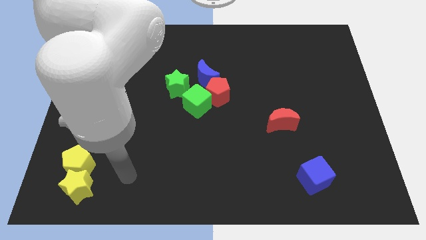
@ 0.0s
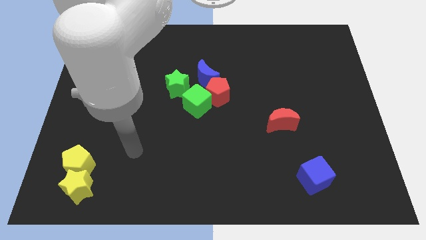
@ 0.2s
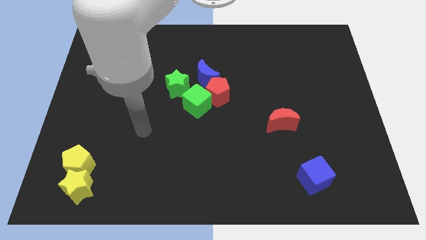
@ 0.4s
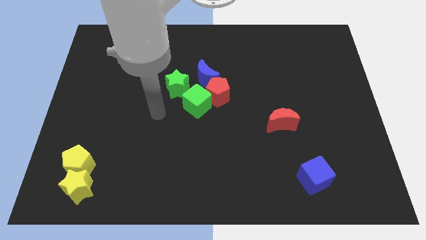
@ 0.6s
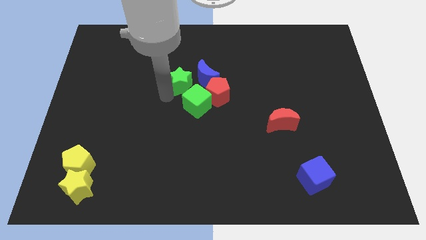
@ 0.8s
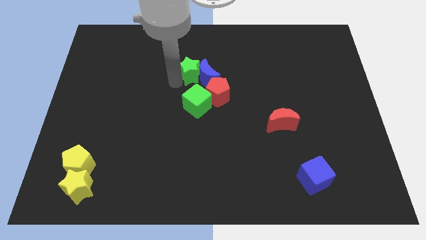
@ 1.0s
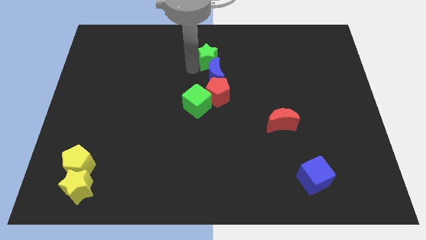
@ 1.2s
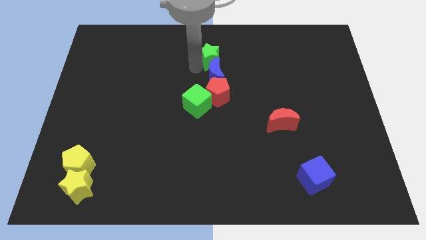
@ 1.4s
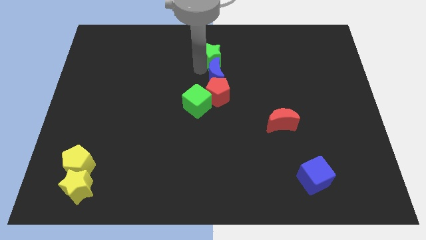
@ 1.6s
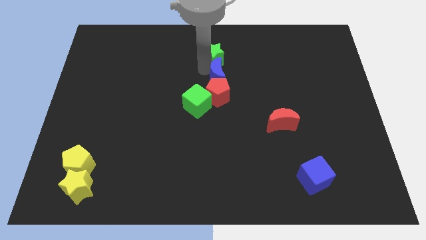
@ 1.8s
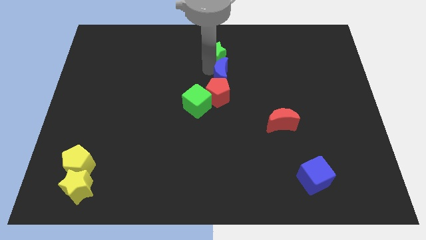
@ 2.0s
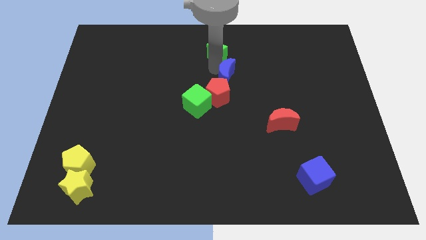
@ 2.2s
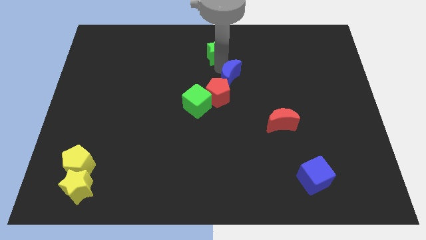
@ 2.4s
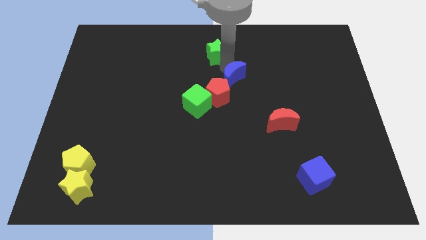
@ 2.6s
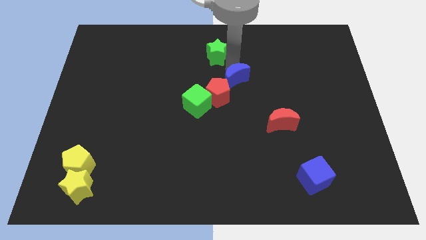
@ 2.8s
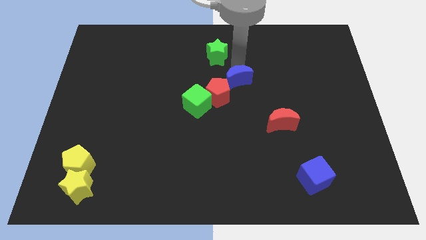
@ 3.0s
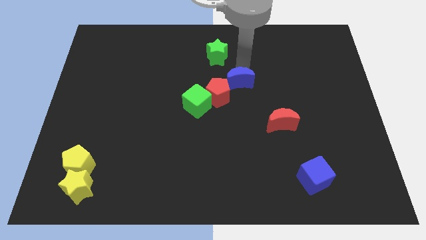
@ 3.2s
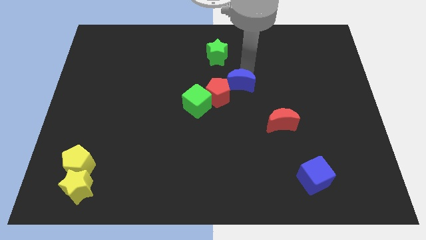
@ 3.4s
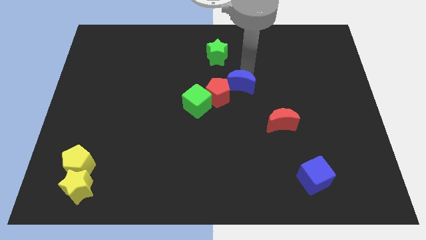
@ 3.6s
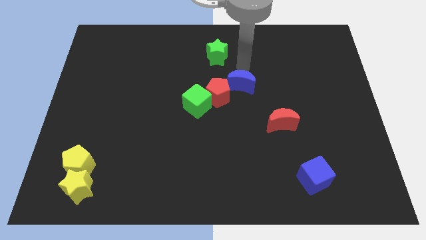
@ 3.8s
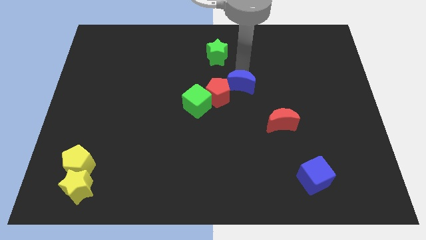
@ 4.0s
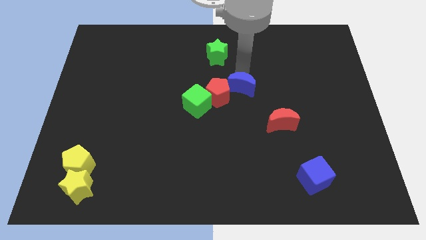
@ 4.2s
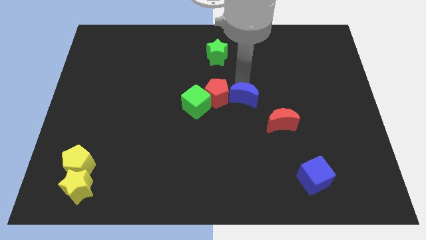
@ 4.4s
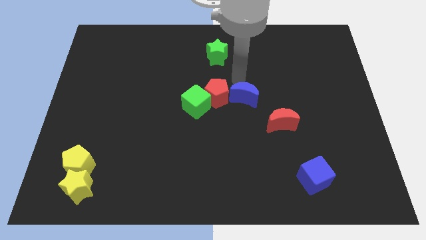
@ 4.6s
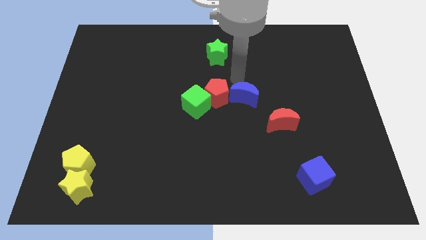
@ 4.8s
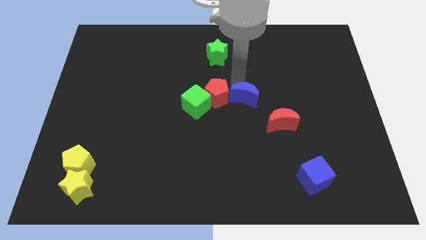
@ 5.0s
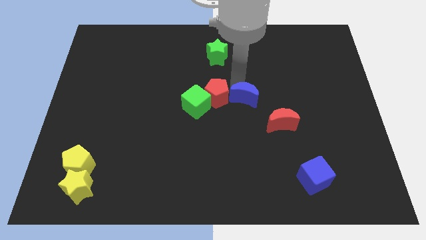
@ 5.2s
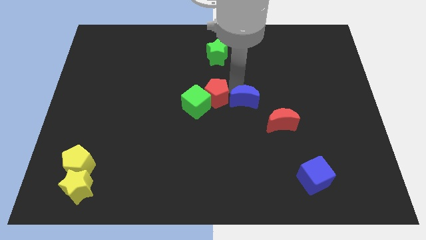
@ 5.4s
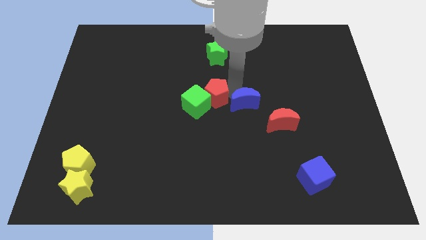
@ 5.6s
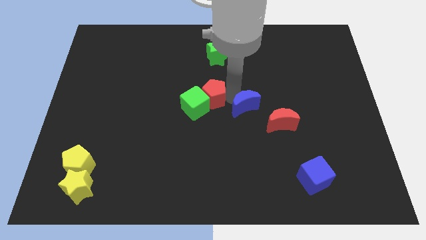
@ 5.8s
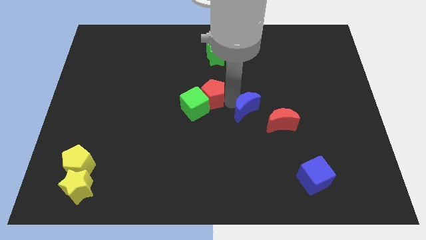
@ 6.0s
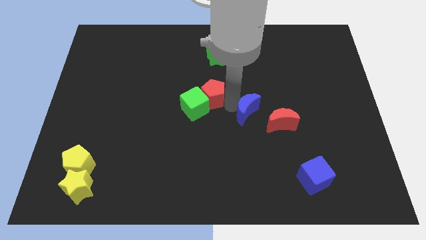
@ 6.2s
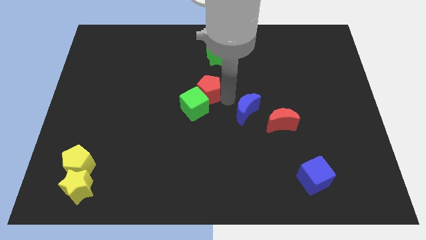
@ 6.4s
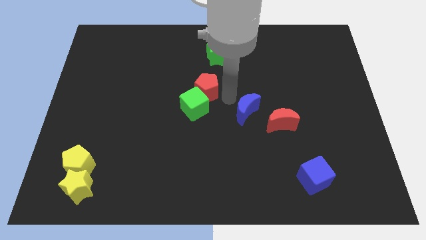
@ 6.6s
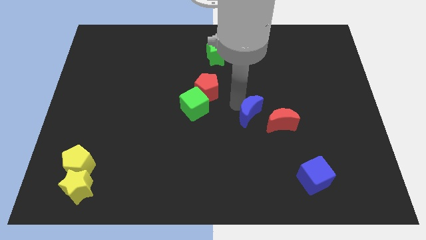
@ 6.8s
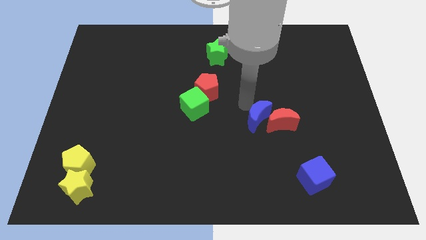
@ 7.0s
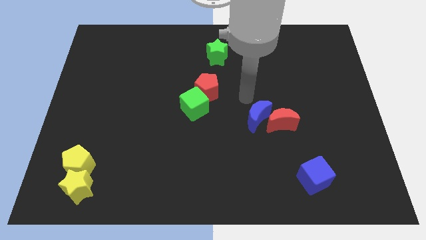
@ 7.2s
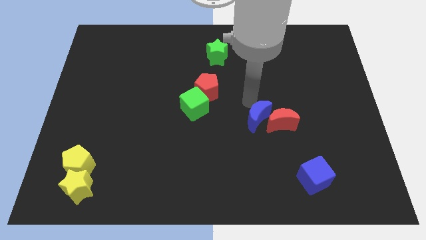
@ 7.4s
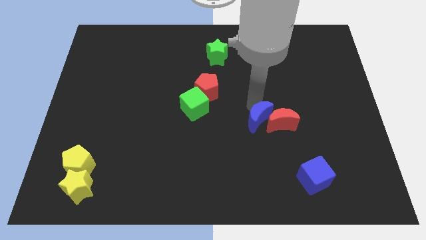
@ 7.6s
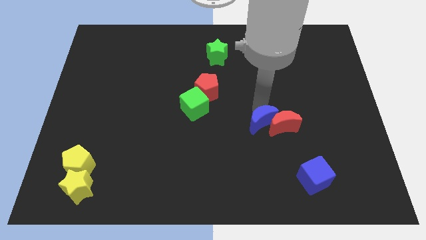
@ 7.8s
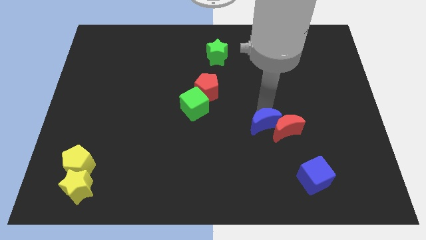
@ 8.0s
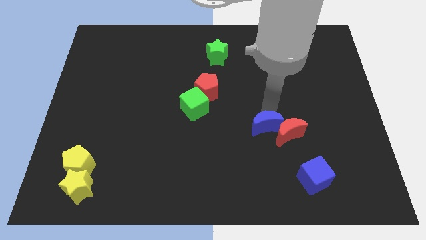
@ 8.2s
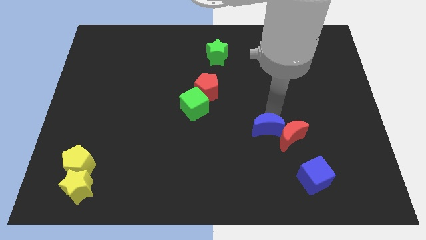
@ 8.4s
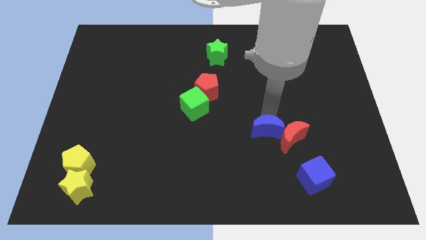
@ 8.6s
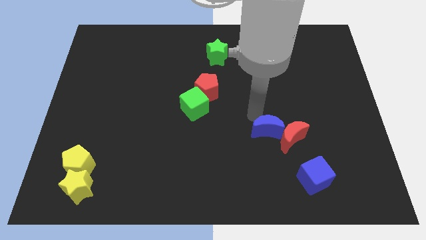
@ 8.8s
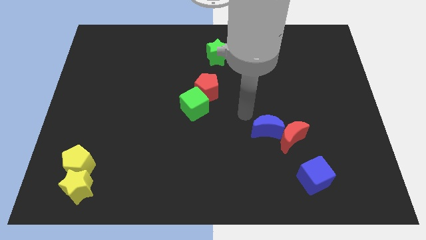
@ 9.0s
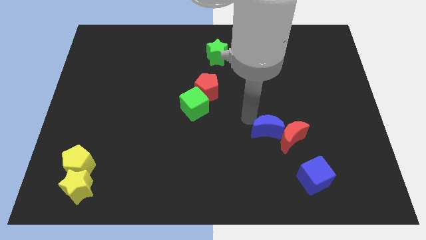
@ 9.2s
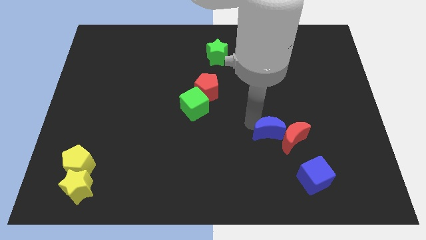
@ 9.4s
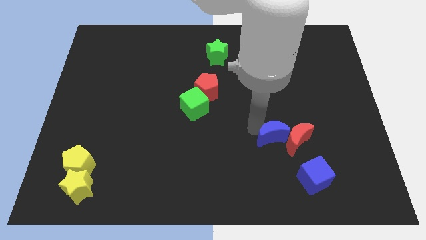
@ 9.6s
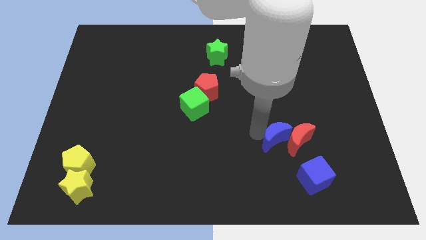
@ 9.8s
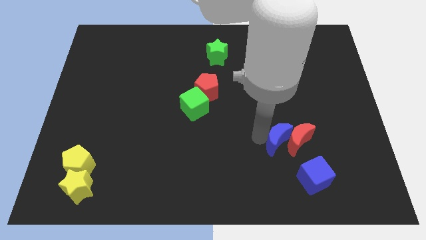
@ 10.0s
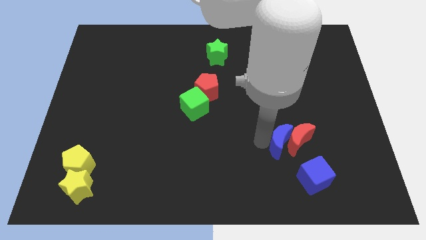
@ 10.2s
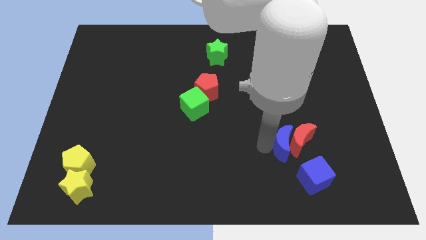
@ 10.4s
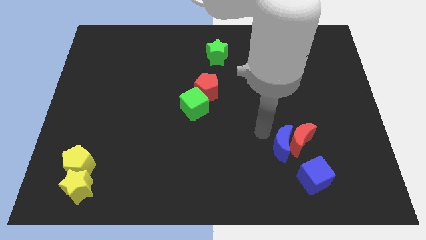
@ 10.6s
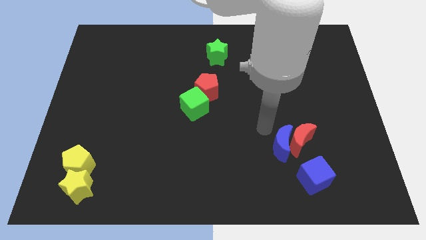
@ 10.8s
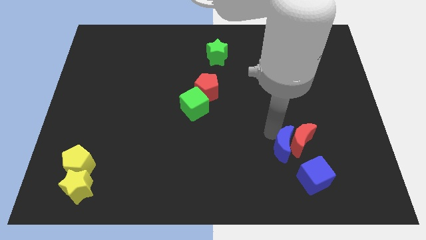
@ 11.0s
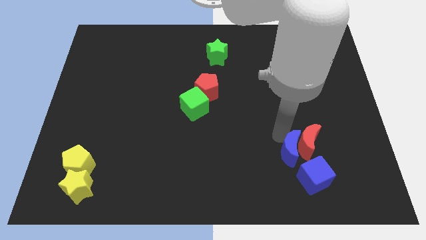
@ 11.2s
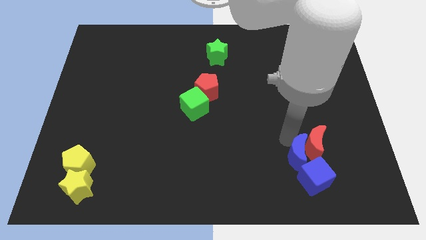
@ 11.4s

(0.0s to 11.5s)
slide the blue moon next to the blue cube

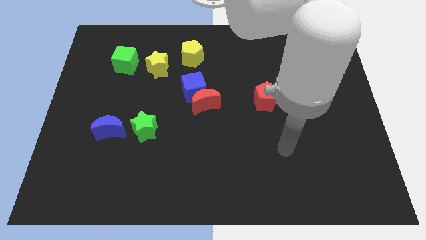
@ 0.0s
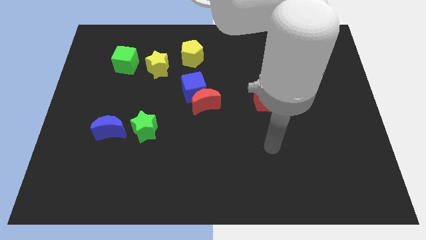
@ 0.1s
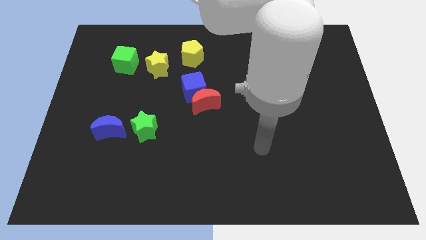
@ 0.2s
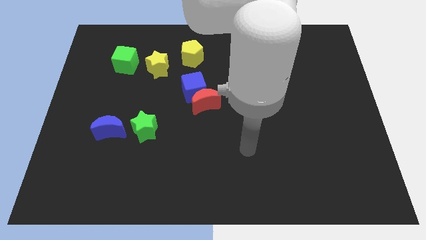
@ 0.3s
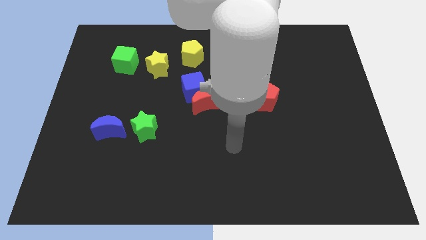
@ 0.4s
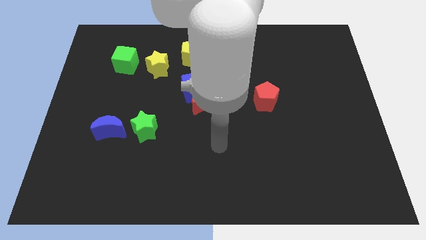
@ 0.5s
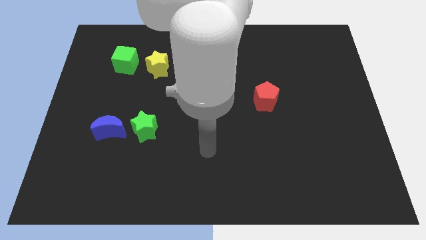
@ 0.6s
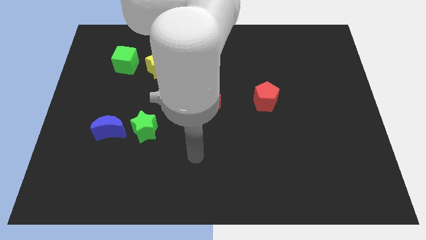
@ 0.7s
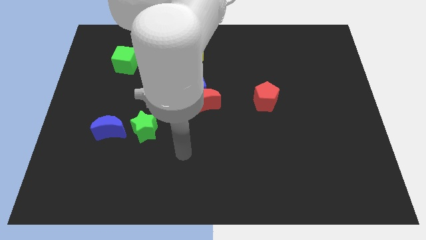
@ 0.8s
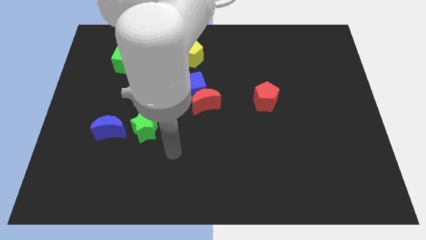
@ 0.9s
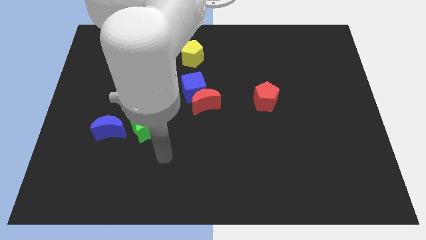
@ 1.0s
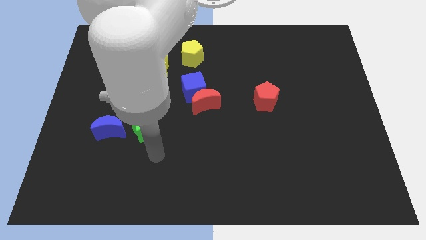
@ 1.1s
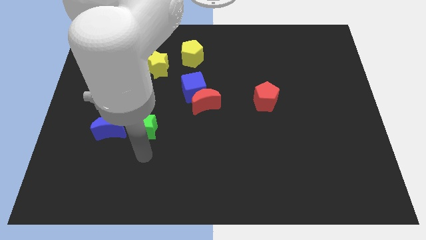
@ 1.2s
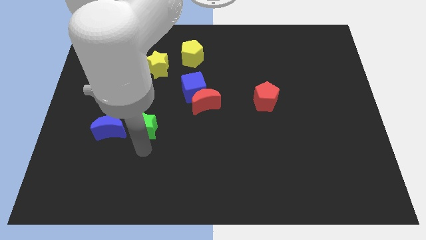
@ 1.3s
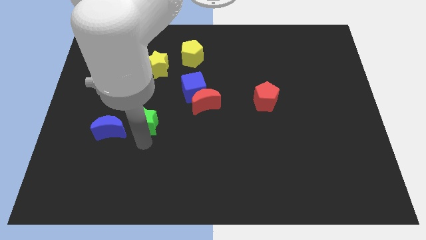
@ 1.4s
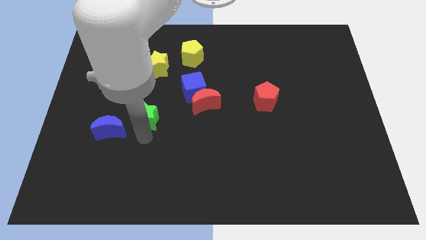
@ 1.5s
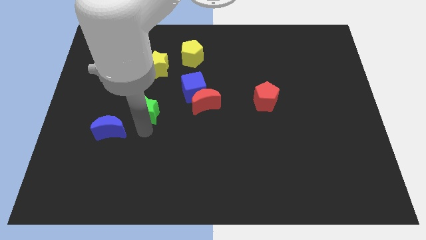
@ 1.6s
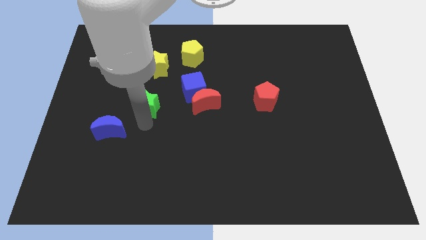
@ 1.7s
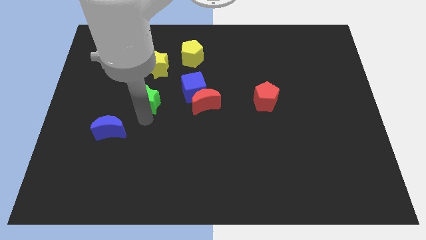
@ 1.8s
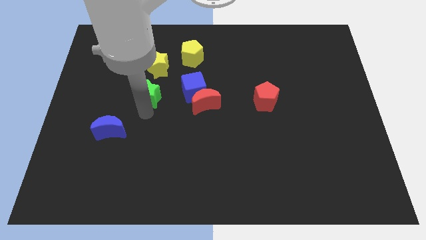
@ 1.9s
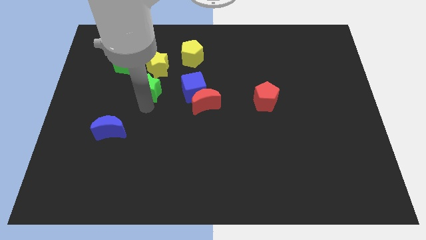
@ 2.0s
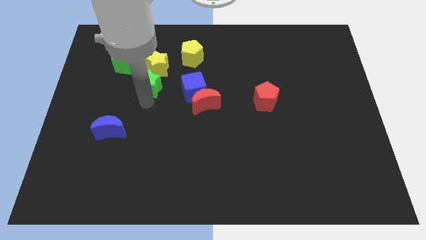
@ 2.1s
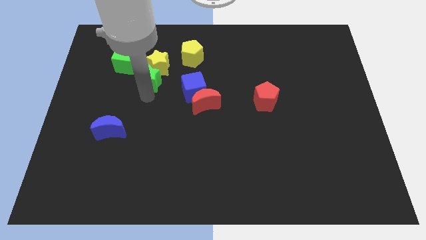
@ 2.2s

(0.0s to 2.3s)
slide the green star next to the yellow star
